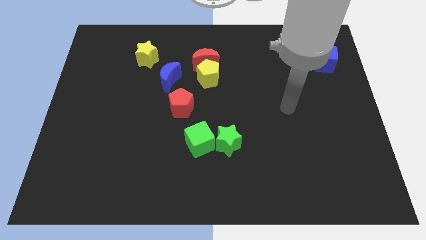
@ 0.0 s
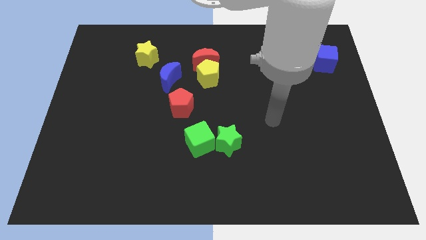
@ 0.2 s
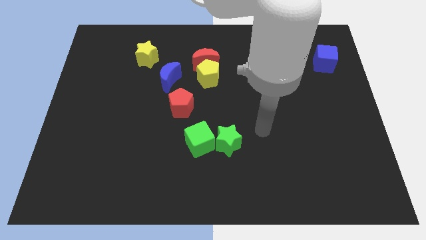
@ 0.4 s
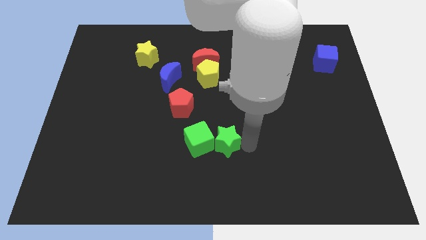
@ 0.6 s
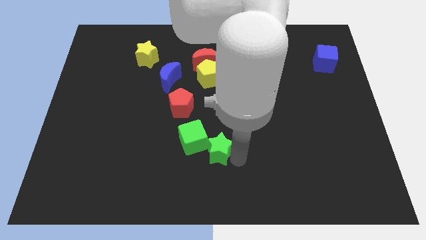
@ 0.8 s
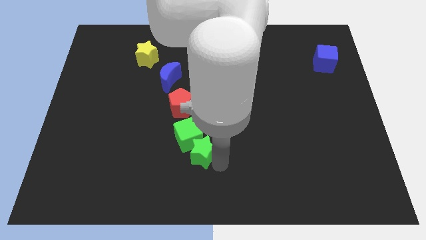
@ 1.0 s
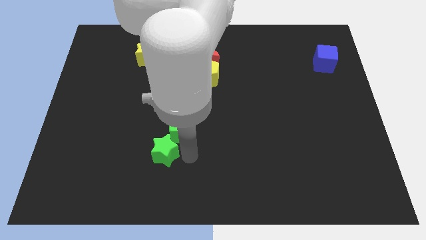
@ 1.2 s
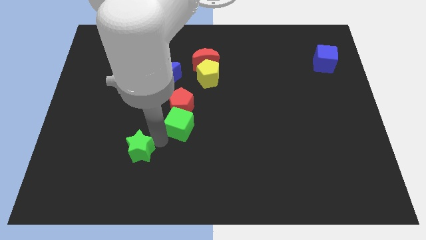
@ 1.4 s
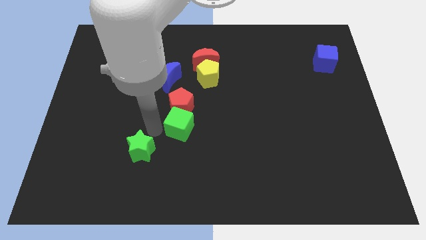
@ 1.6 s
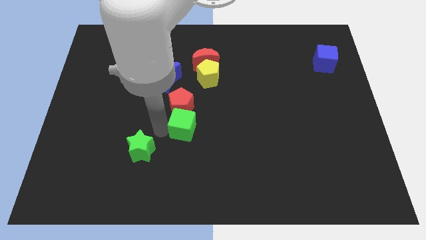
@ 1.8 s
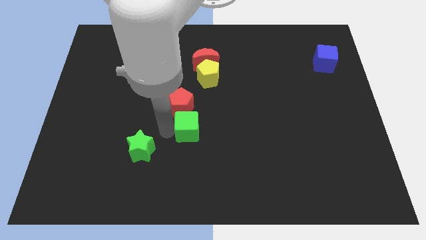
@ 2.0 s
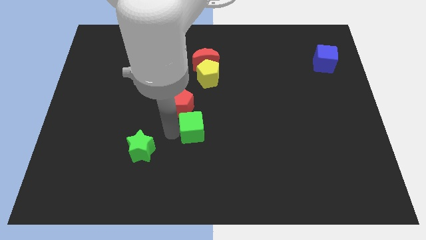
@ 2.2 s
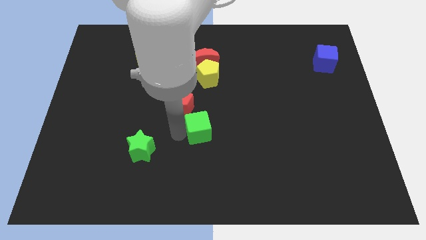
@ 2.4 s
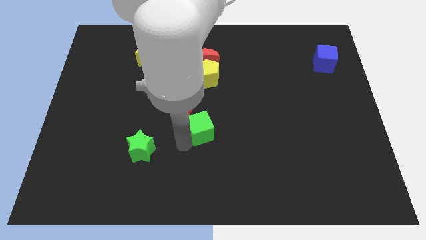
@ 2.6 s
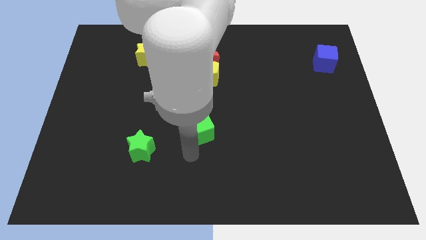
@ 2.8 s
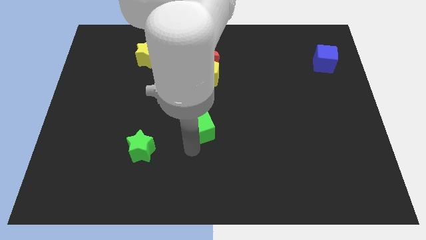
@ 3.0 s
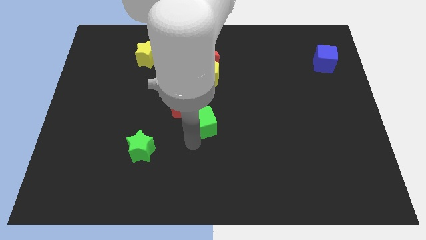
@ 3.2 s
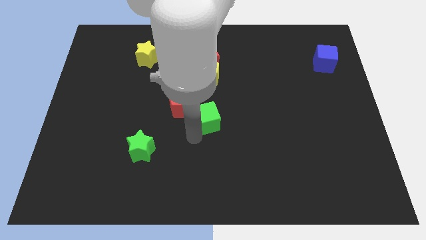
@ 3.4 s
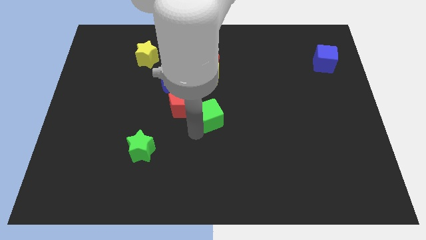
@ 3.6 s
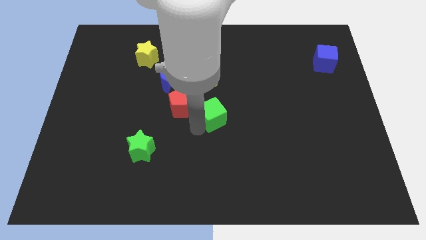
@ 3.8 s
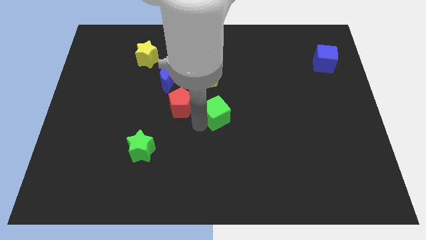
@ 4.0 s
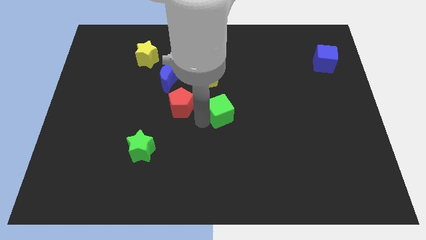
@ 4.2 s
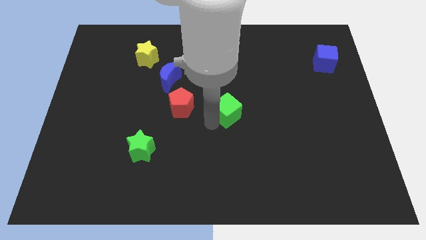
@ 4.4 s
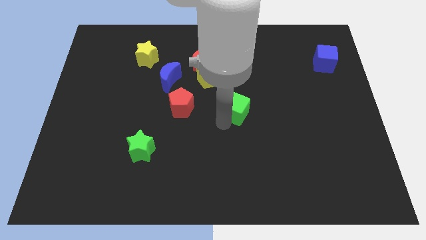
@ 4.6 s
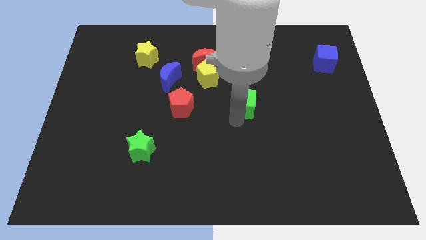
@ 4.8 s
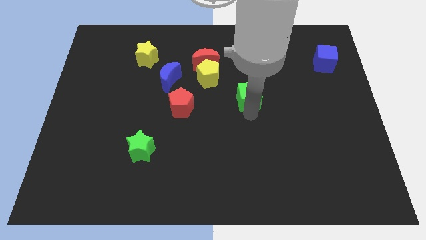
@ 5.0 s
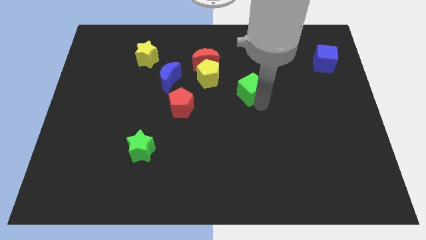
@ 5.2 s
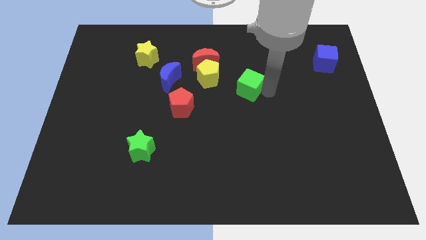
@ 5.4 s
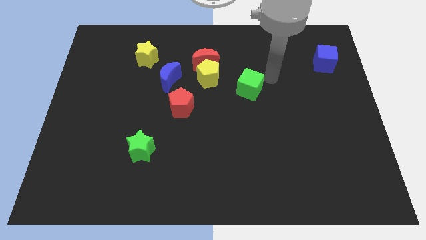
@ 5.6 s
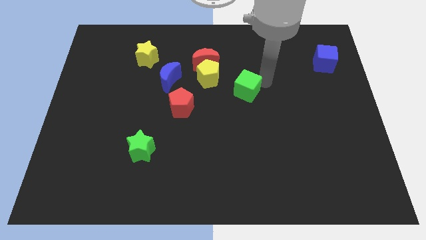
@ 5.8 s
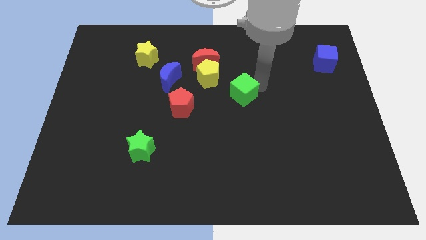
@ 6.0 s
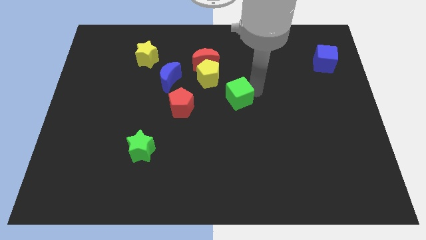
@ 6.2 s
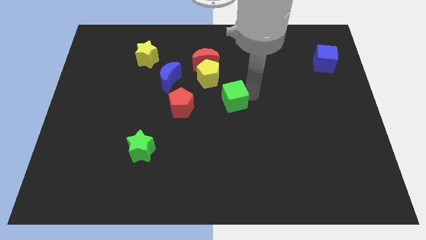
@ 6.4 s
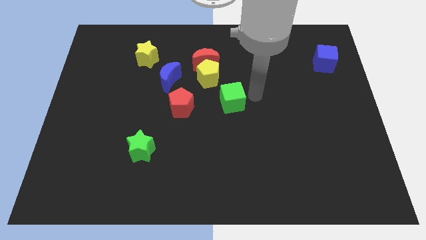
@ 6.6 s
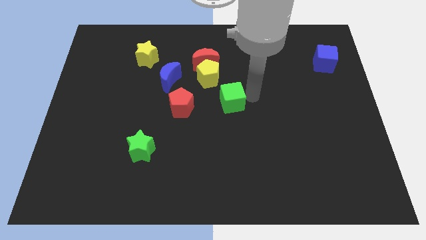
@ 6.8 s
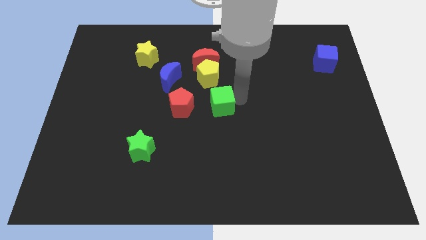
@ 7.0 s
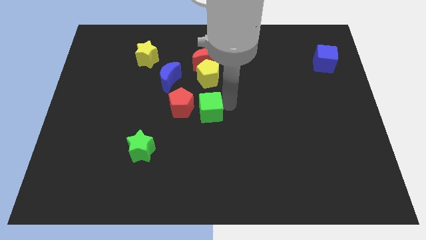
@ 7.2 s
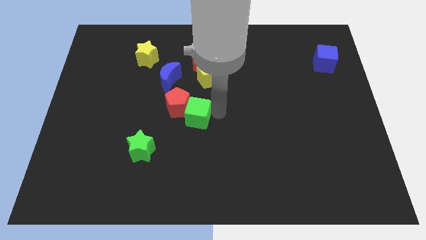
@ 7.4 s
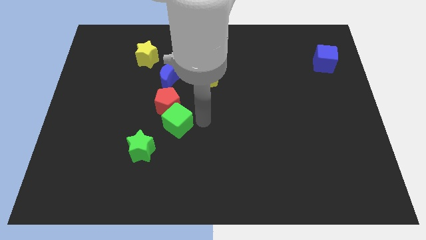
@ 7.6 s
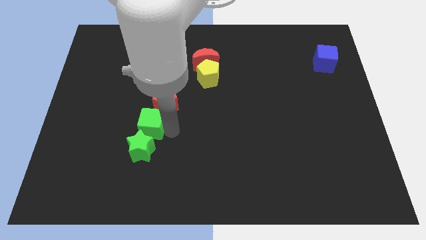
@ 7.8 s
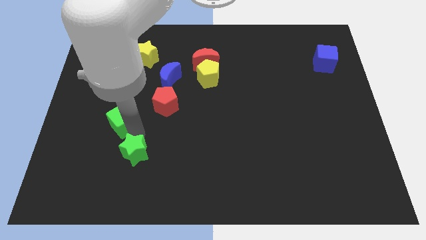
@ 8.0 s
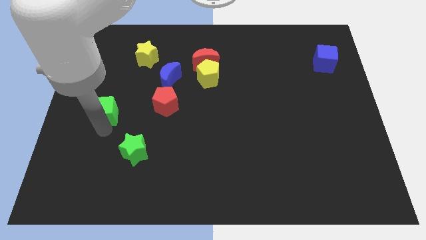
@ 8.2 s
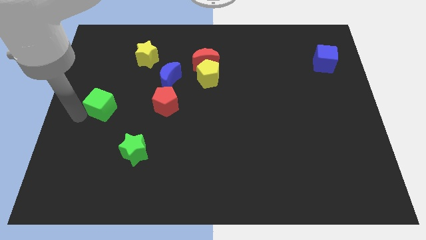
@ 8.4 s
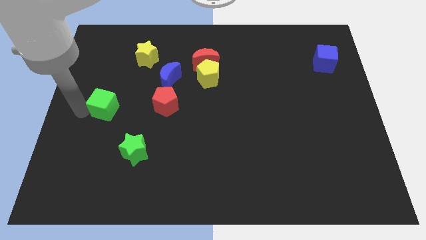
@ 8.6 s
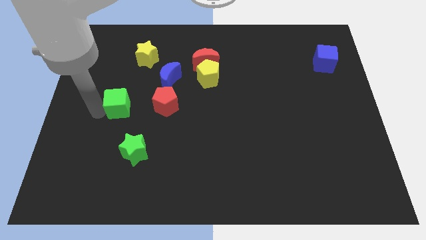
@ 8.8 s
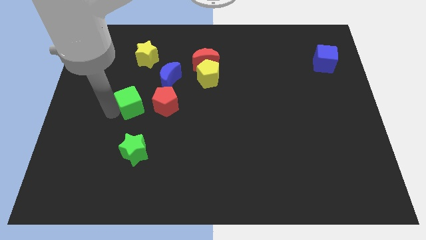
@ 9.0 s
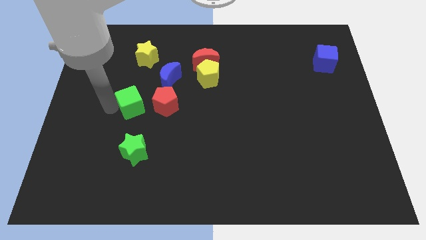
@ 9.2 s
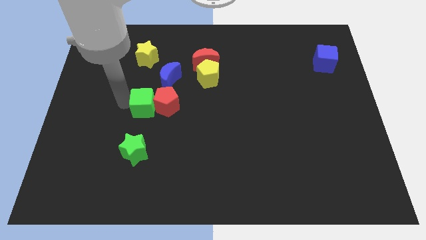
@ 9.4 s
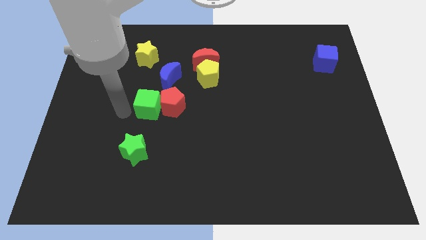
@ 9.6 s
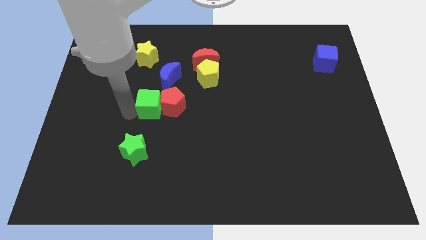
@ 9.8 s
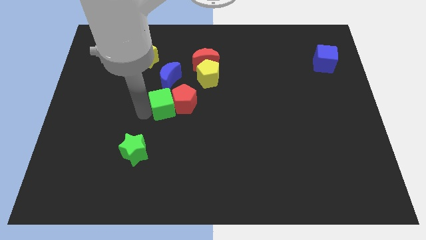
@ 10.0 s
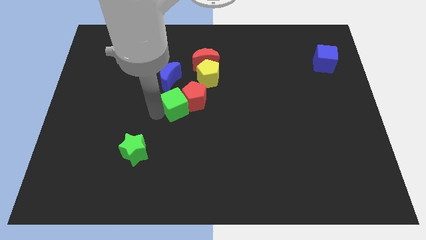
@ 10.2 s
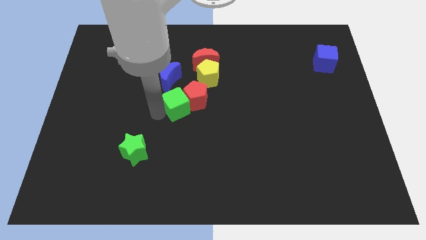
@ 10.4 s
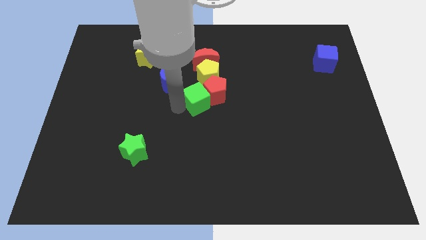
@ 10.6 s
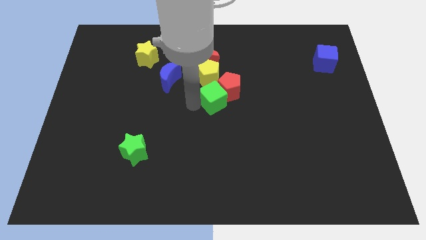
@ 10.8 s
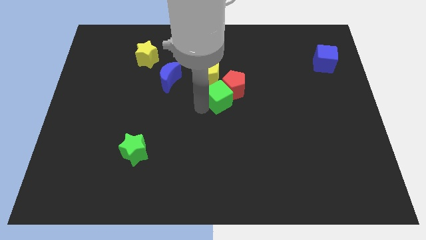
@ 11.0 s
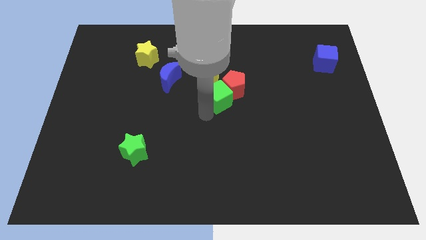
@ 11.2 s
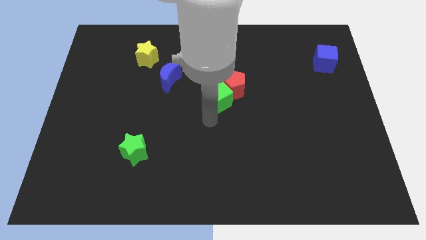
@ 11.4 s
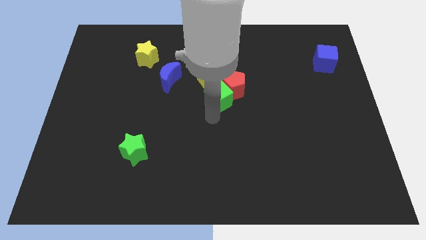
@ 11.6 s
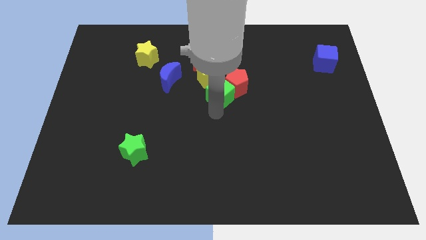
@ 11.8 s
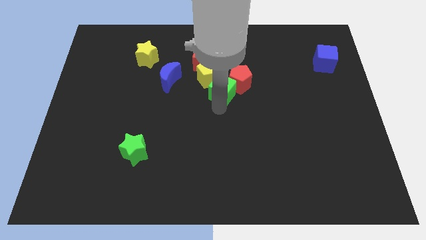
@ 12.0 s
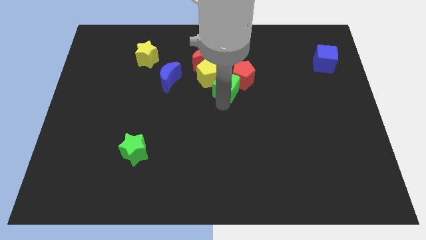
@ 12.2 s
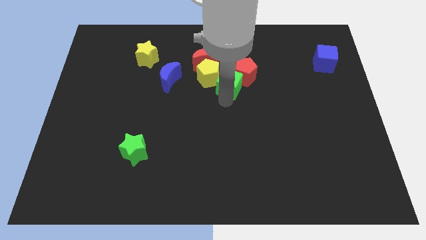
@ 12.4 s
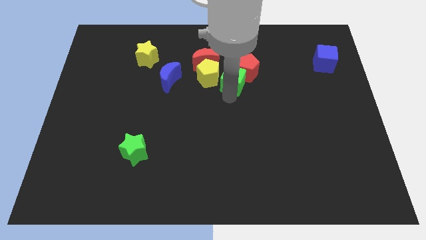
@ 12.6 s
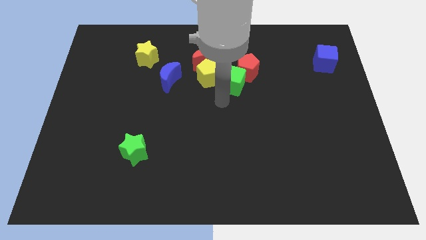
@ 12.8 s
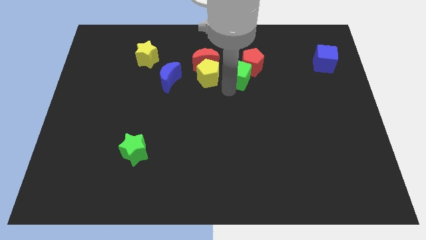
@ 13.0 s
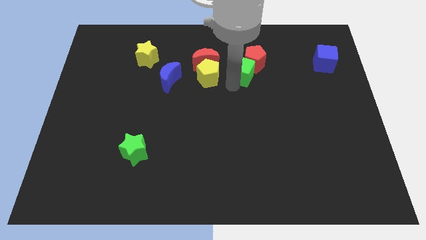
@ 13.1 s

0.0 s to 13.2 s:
slide the green cube to the right side of the red moon
